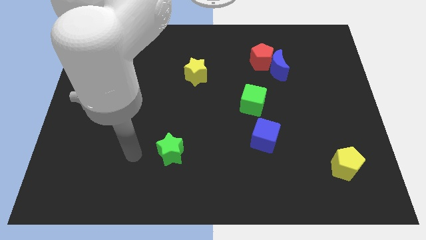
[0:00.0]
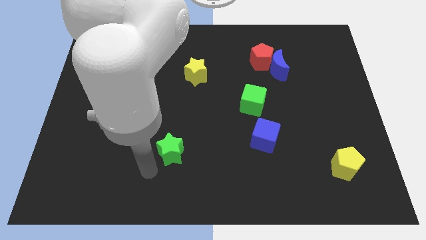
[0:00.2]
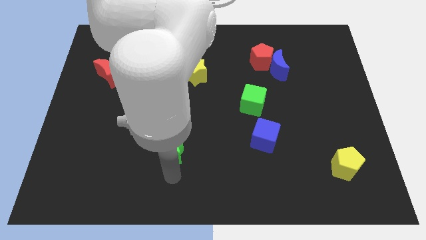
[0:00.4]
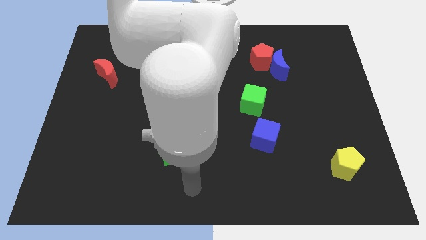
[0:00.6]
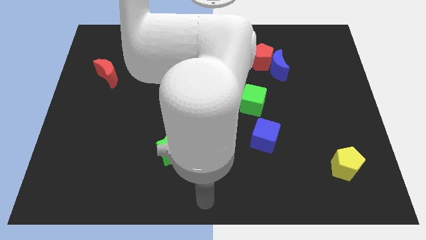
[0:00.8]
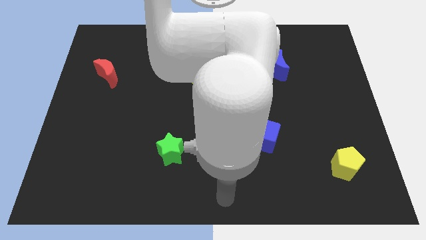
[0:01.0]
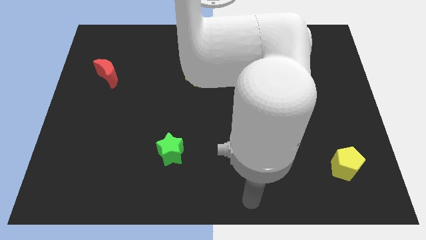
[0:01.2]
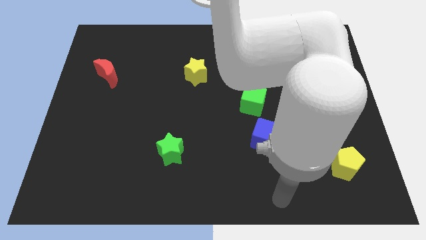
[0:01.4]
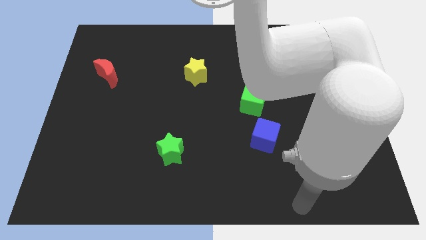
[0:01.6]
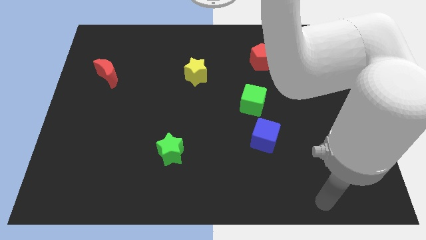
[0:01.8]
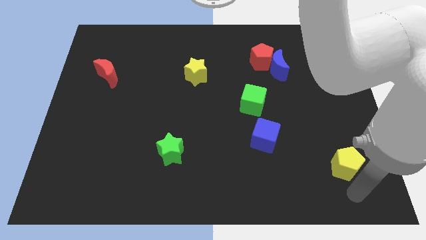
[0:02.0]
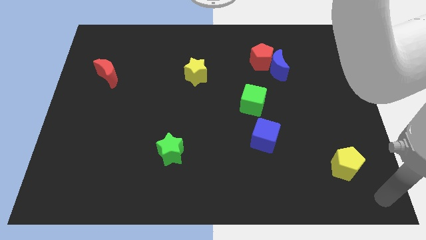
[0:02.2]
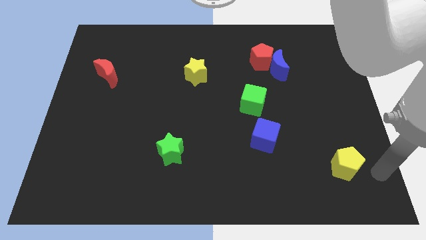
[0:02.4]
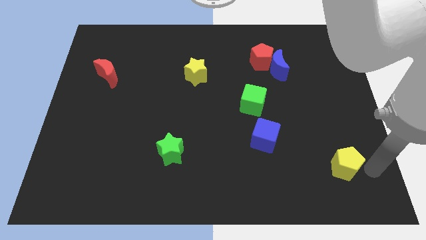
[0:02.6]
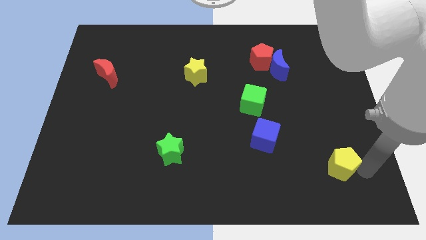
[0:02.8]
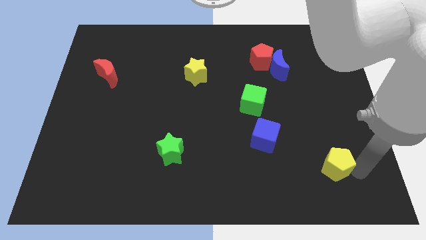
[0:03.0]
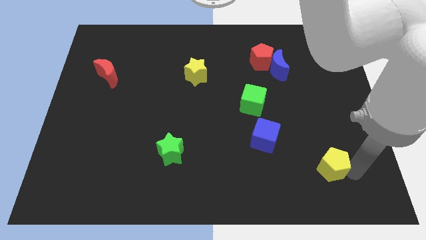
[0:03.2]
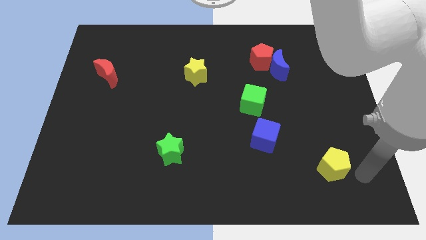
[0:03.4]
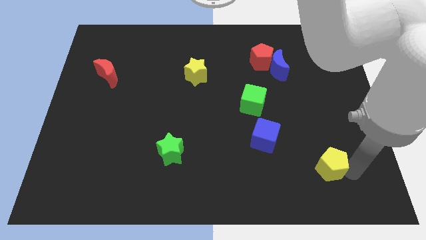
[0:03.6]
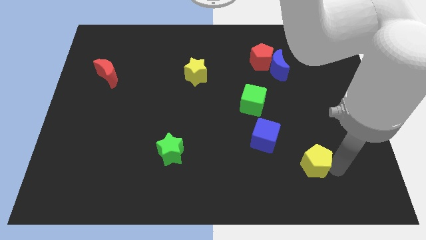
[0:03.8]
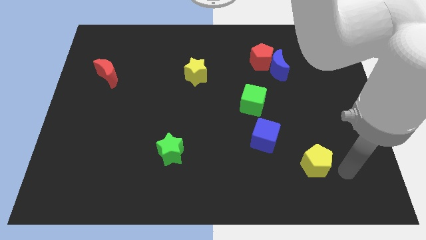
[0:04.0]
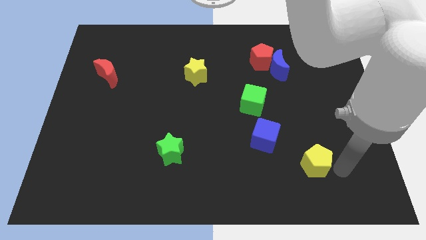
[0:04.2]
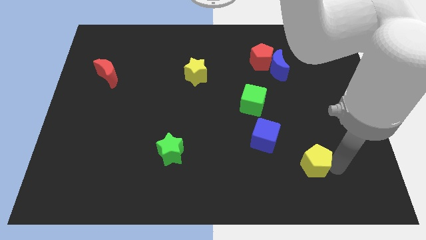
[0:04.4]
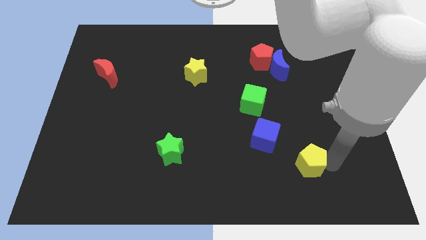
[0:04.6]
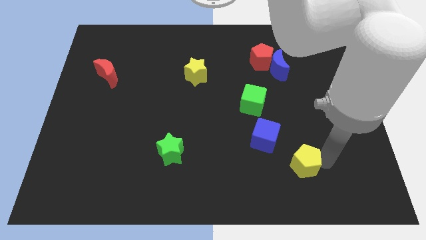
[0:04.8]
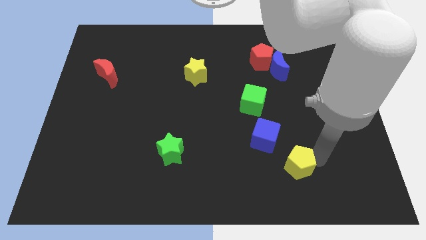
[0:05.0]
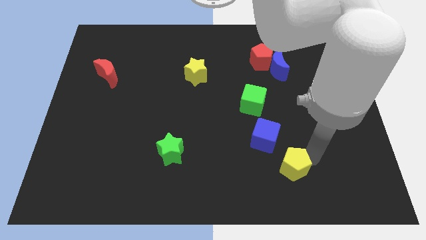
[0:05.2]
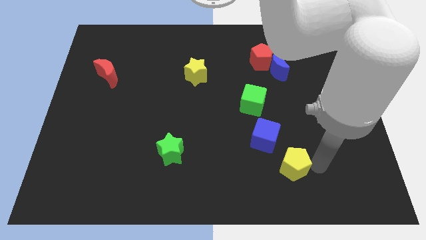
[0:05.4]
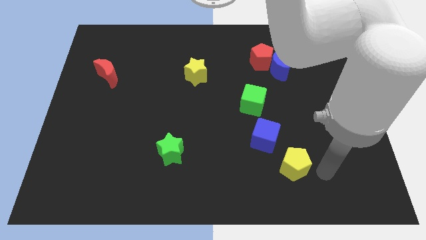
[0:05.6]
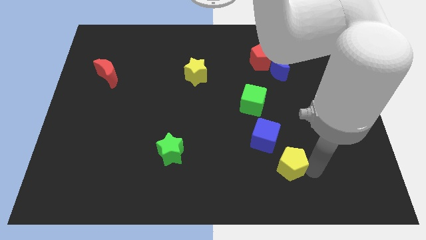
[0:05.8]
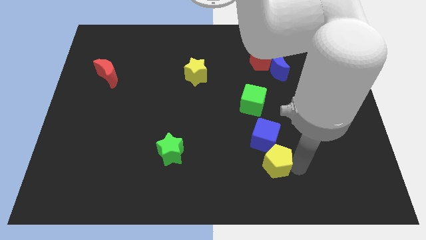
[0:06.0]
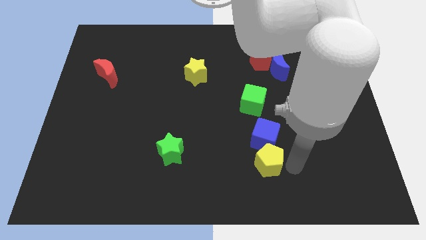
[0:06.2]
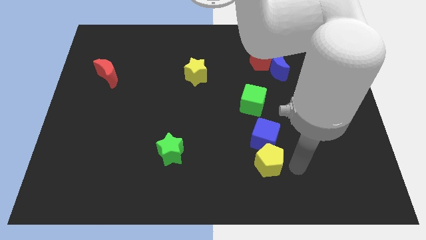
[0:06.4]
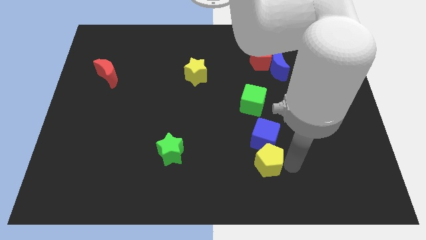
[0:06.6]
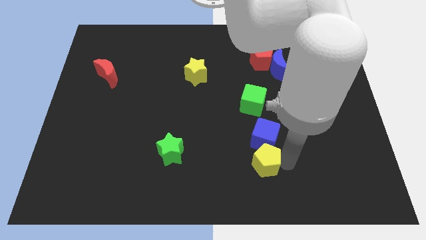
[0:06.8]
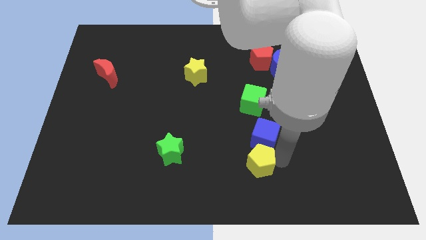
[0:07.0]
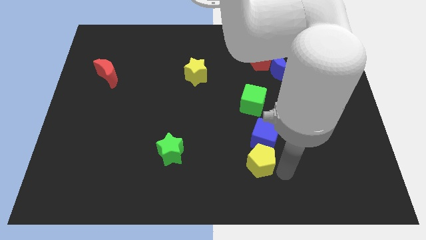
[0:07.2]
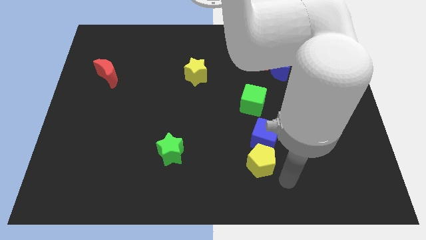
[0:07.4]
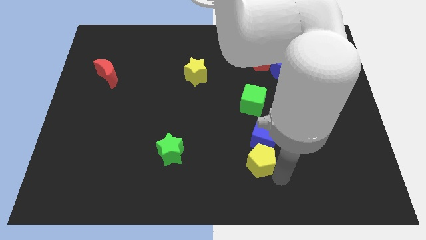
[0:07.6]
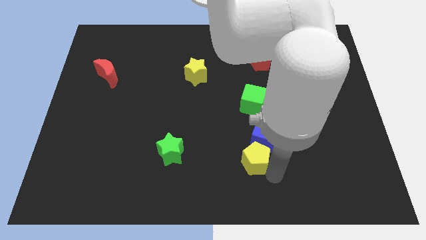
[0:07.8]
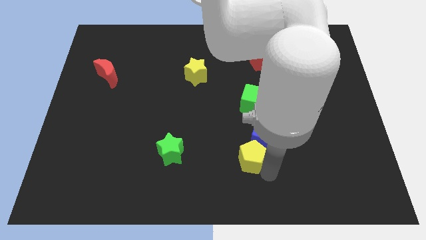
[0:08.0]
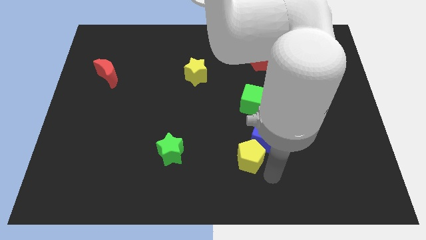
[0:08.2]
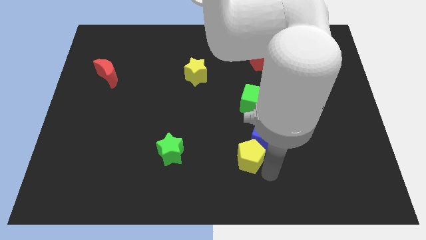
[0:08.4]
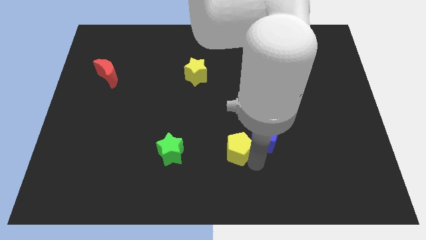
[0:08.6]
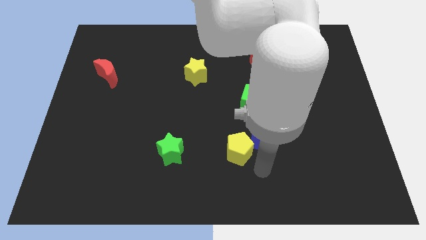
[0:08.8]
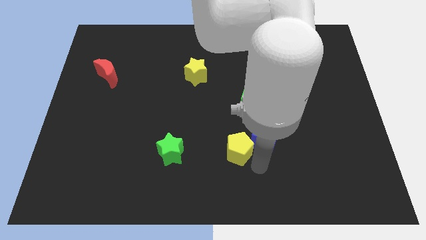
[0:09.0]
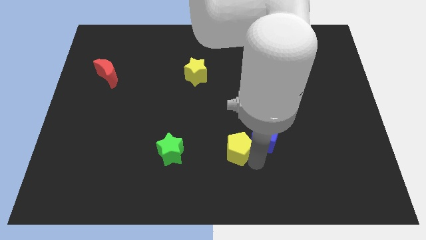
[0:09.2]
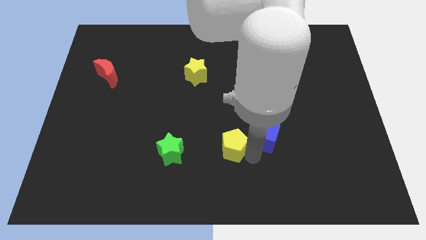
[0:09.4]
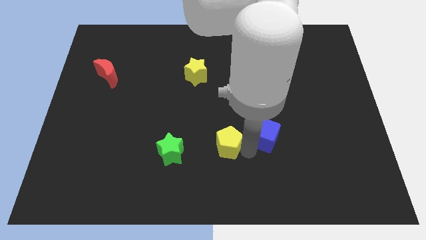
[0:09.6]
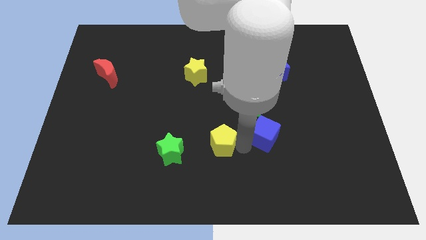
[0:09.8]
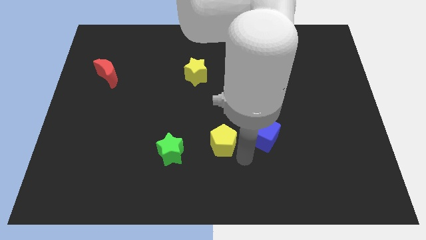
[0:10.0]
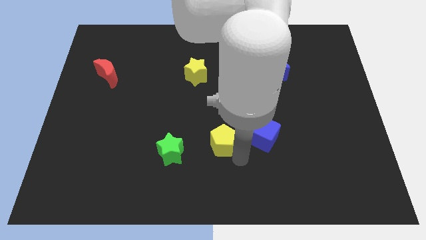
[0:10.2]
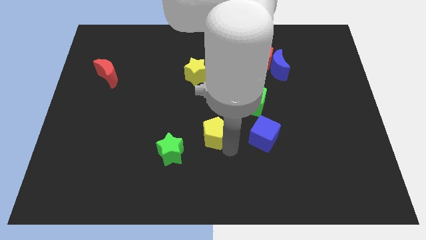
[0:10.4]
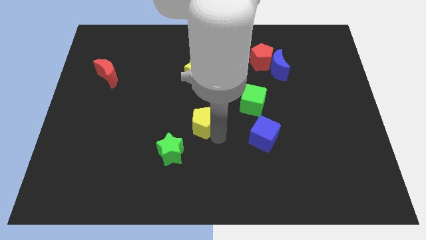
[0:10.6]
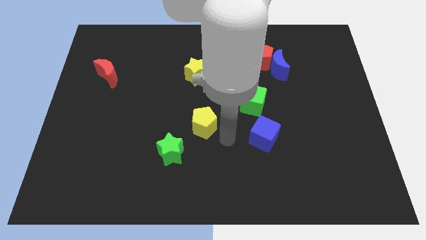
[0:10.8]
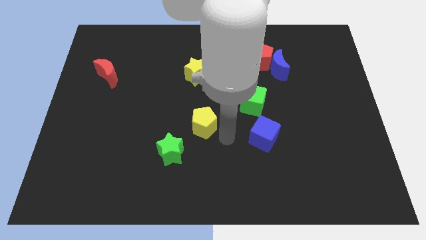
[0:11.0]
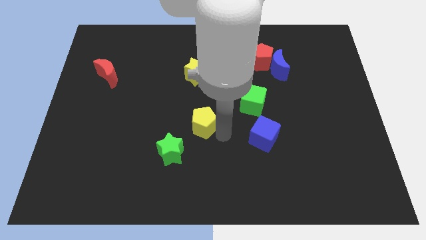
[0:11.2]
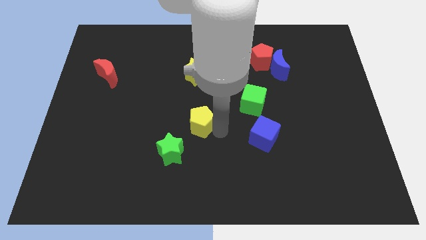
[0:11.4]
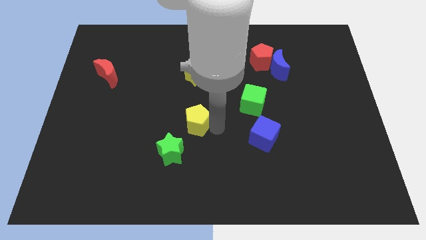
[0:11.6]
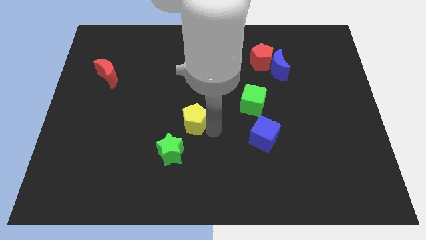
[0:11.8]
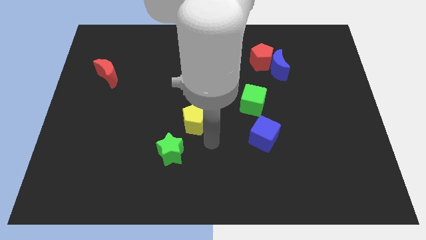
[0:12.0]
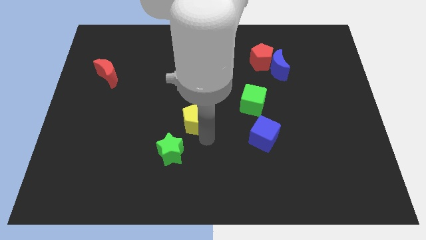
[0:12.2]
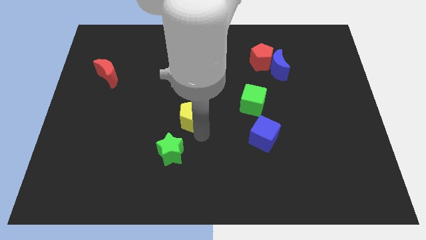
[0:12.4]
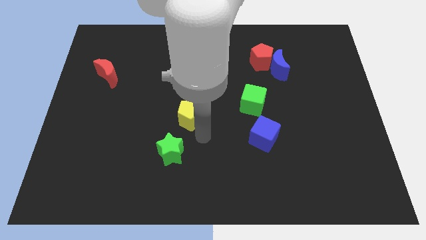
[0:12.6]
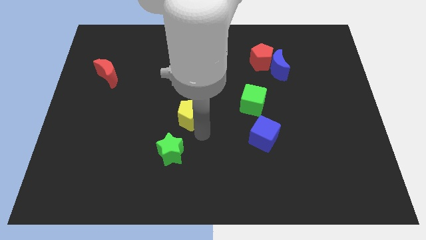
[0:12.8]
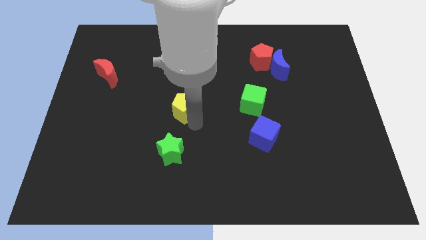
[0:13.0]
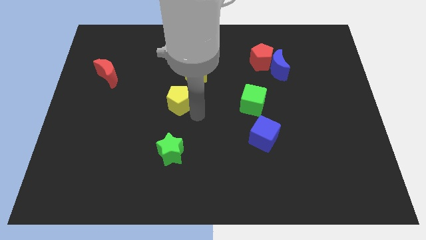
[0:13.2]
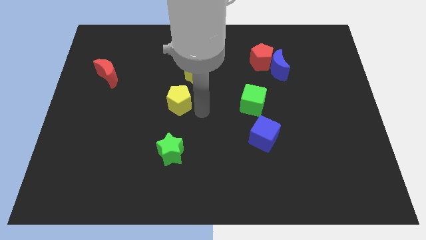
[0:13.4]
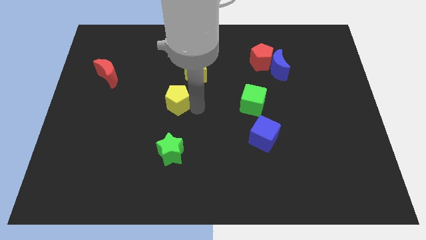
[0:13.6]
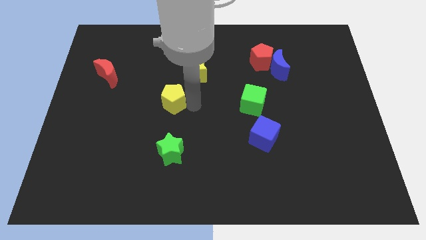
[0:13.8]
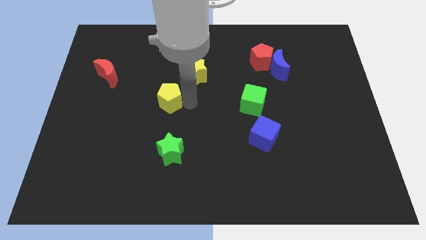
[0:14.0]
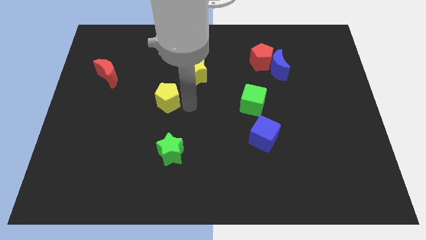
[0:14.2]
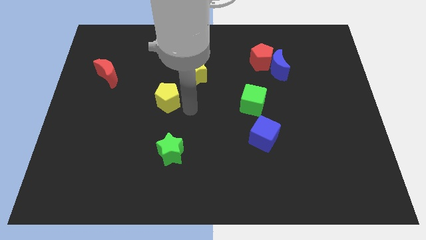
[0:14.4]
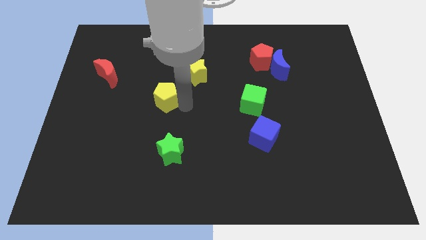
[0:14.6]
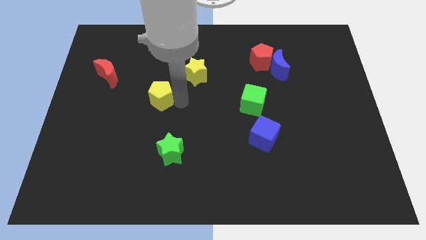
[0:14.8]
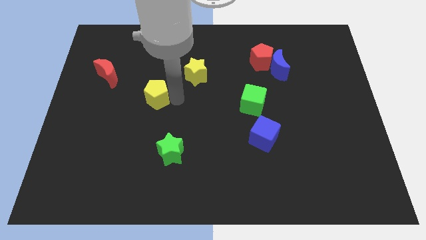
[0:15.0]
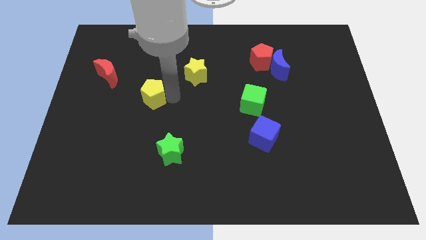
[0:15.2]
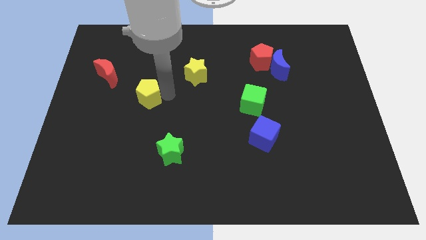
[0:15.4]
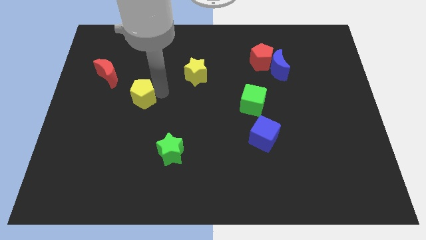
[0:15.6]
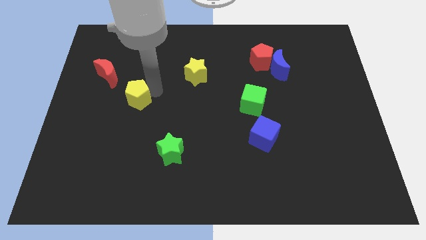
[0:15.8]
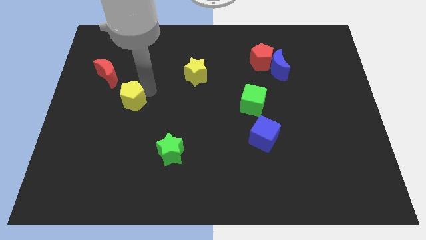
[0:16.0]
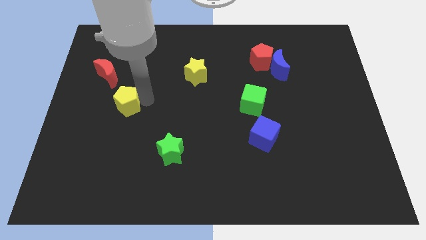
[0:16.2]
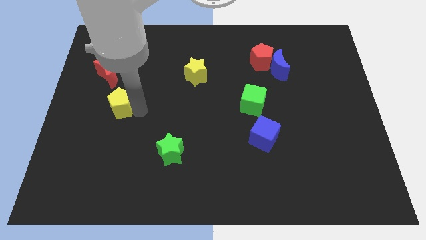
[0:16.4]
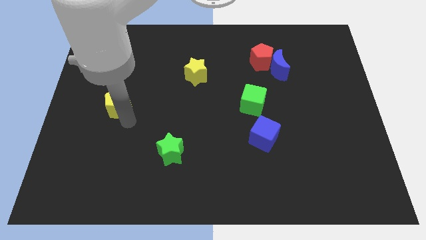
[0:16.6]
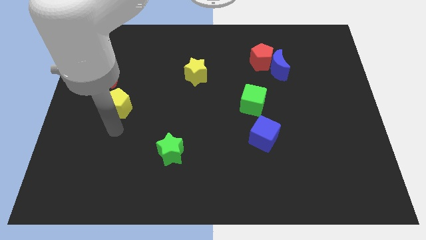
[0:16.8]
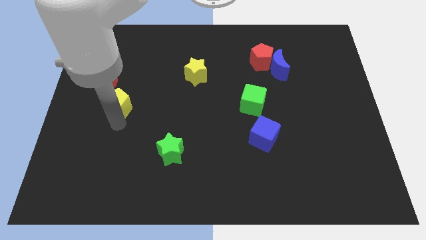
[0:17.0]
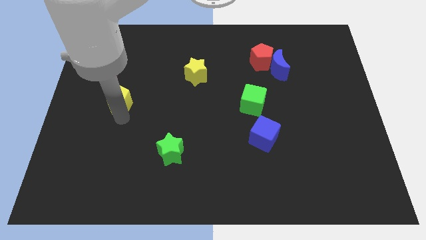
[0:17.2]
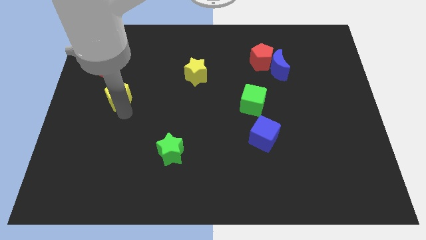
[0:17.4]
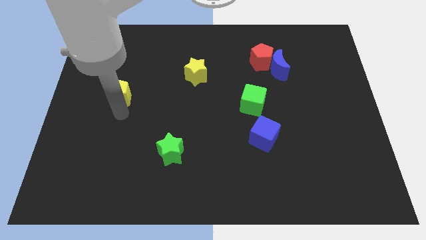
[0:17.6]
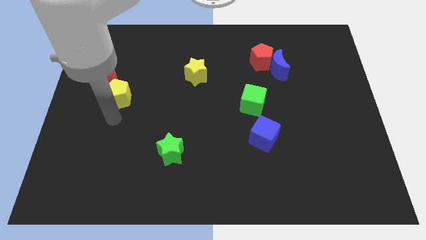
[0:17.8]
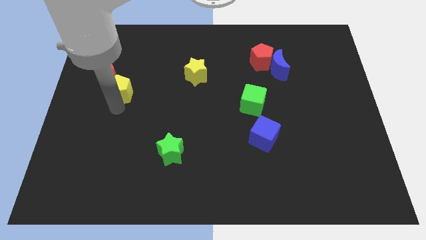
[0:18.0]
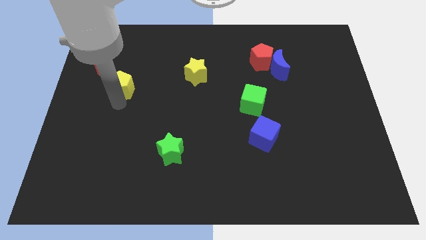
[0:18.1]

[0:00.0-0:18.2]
put the yellow pentagon to the red moon
